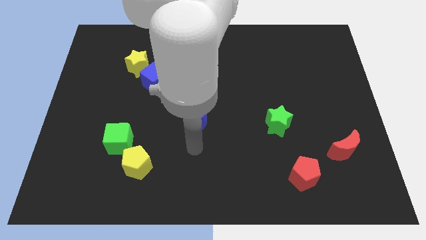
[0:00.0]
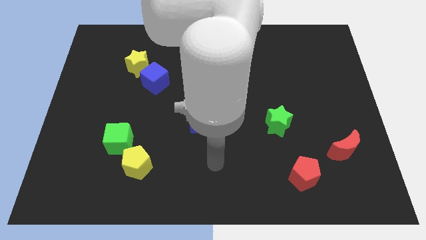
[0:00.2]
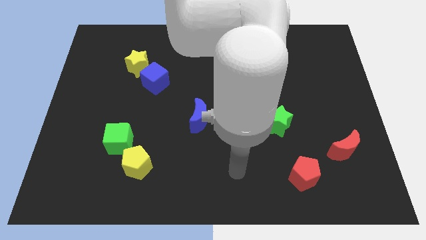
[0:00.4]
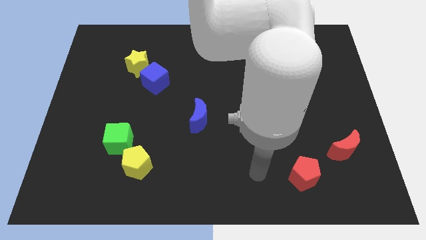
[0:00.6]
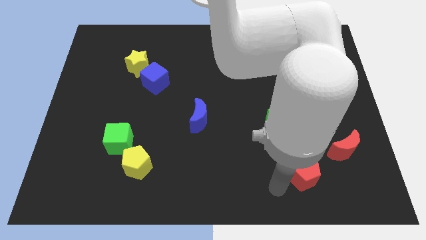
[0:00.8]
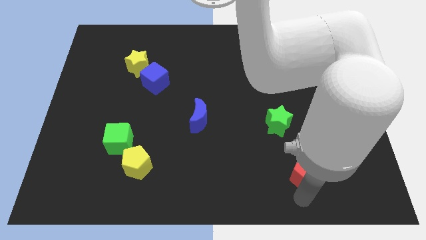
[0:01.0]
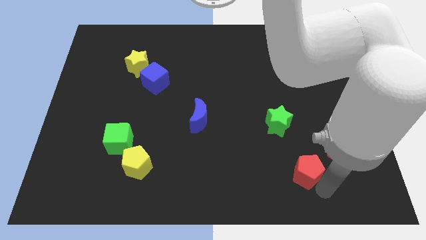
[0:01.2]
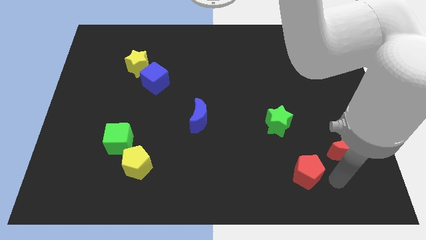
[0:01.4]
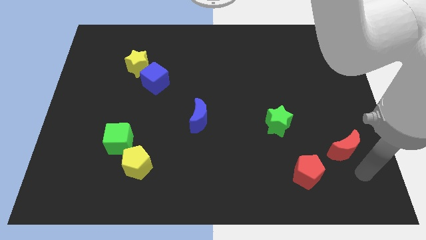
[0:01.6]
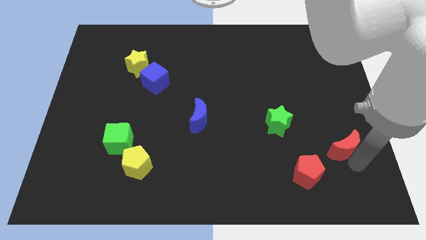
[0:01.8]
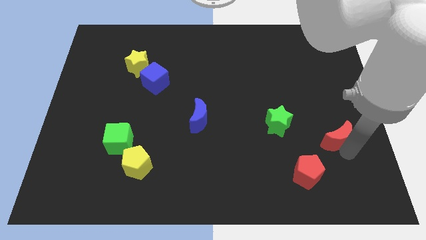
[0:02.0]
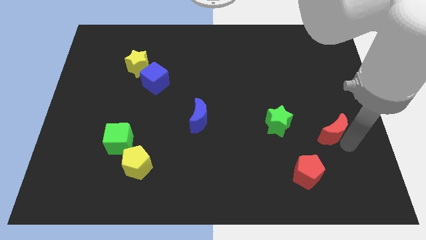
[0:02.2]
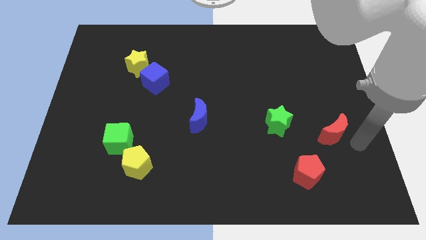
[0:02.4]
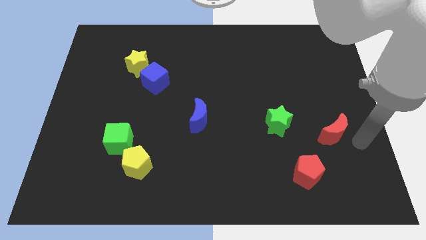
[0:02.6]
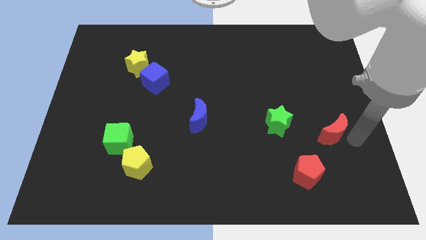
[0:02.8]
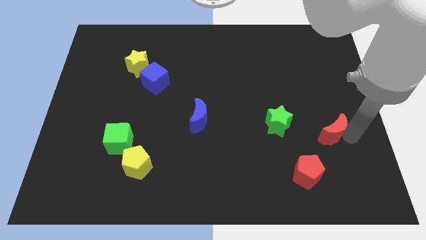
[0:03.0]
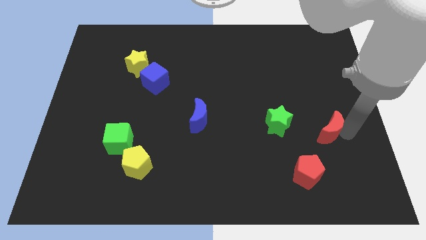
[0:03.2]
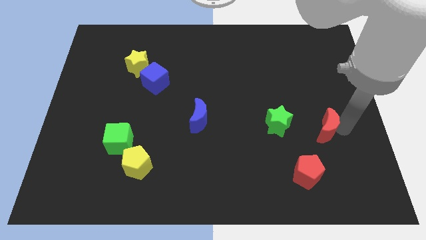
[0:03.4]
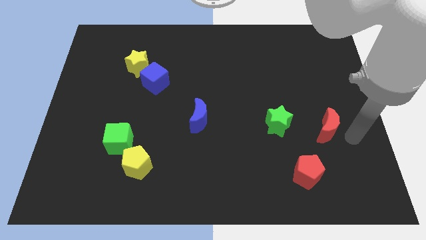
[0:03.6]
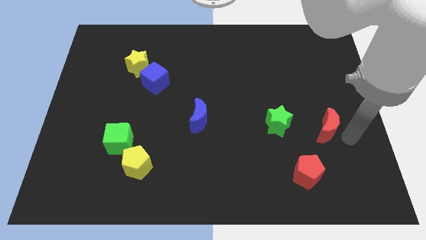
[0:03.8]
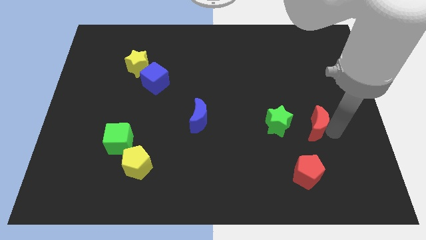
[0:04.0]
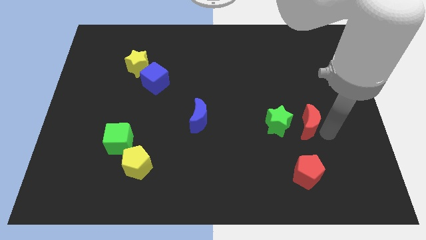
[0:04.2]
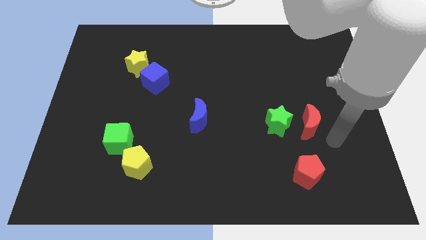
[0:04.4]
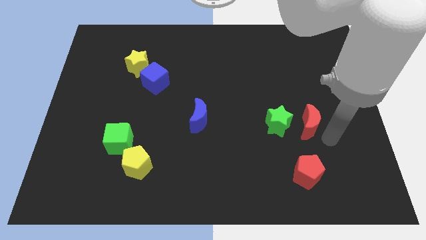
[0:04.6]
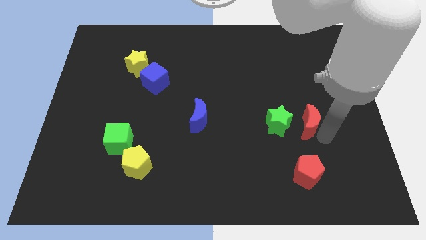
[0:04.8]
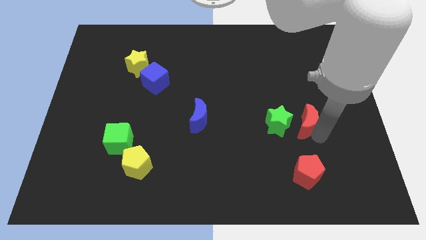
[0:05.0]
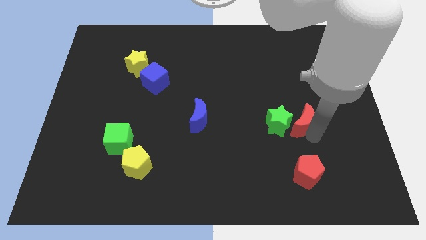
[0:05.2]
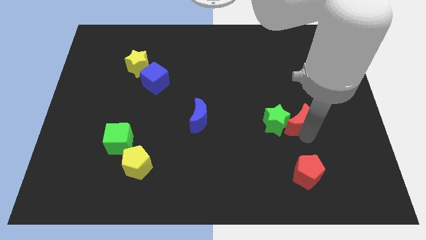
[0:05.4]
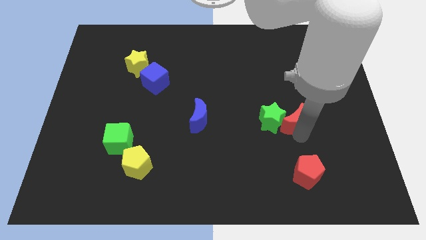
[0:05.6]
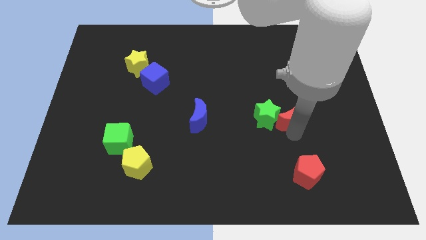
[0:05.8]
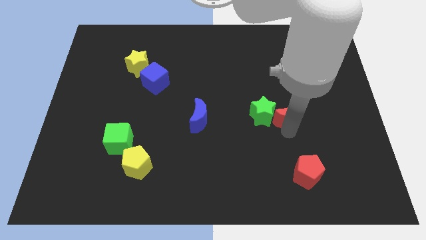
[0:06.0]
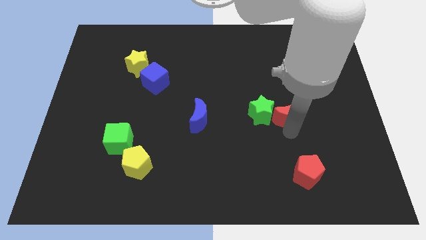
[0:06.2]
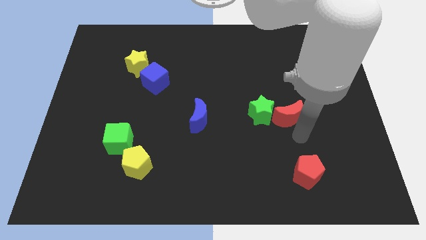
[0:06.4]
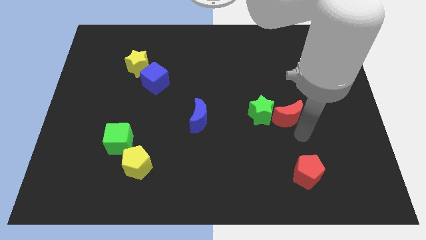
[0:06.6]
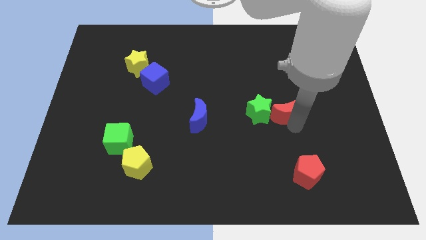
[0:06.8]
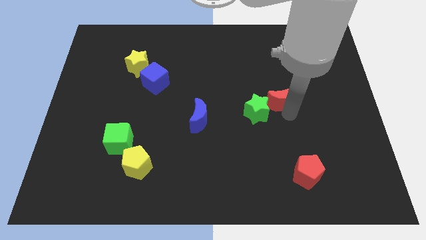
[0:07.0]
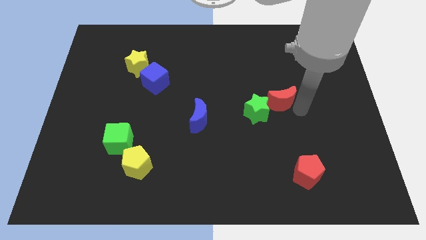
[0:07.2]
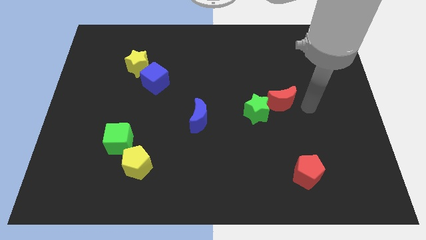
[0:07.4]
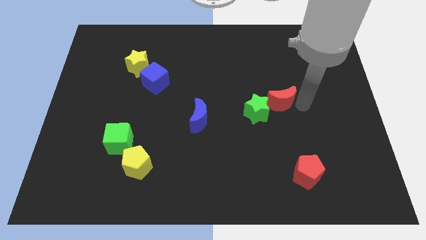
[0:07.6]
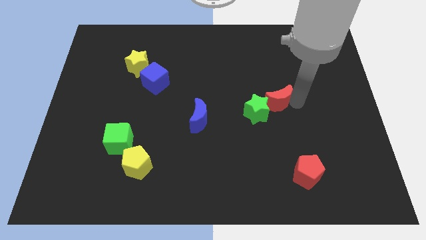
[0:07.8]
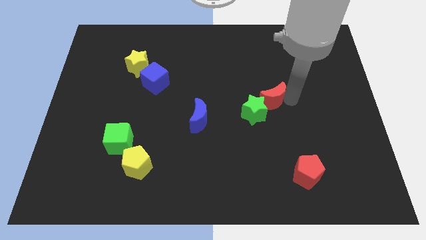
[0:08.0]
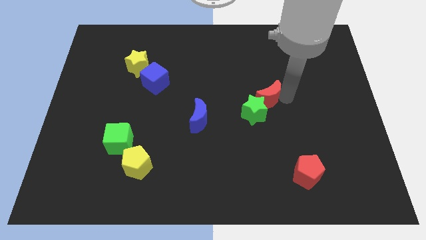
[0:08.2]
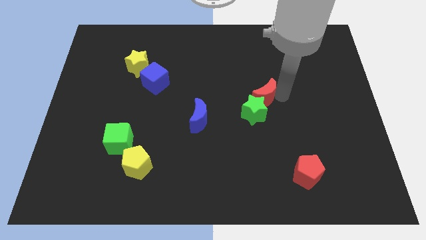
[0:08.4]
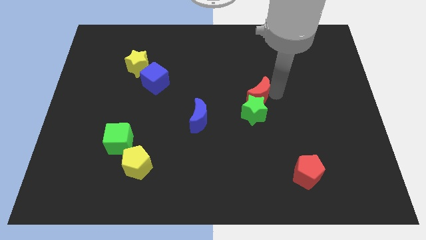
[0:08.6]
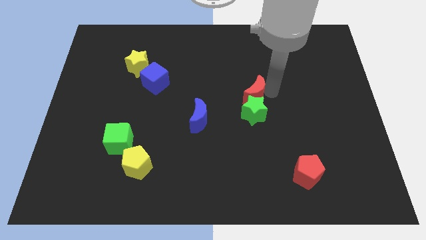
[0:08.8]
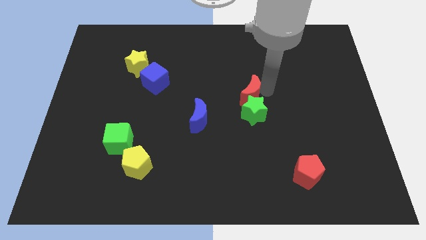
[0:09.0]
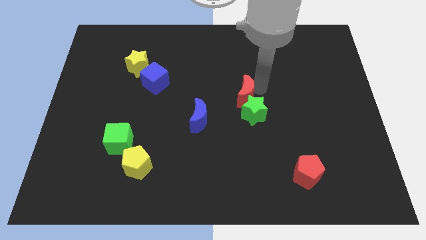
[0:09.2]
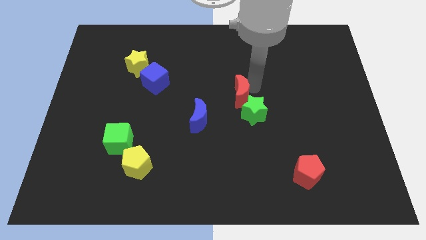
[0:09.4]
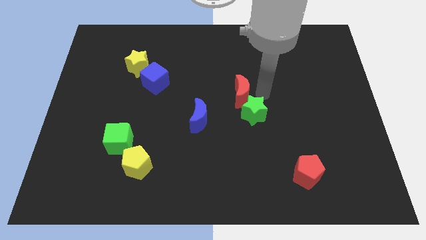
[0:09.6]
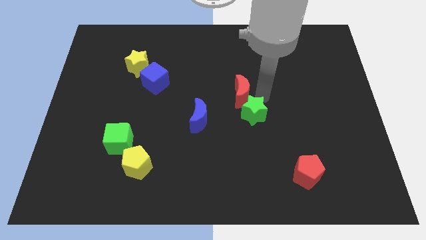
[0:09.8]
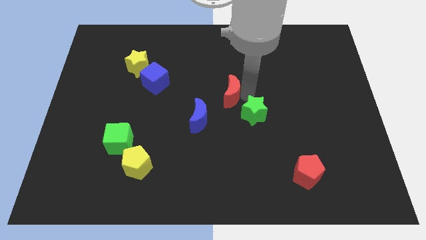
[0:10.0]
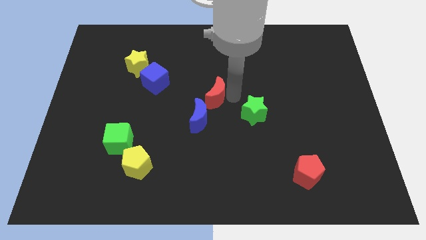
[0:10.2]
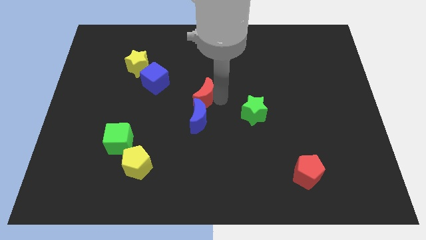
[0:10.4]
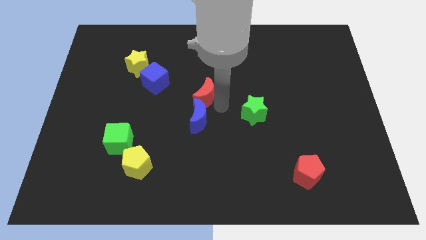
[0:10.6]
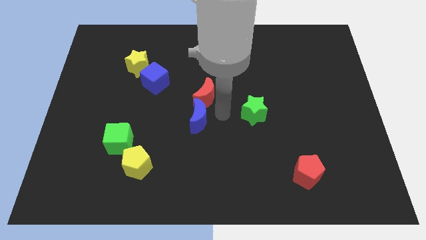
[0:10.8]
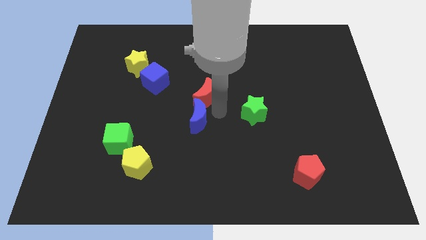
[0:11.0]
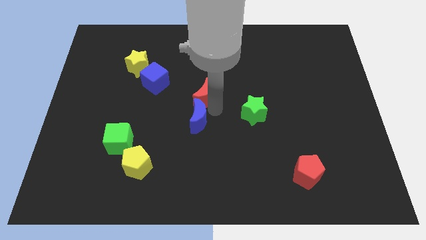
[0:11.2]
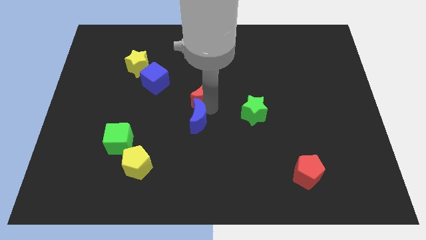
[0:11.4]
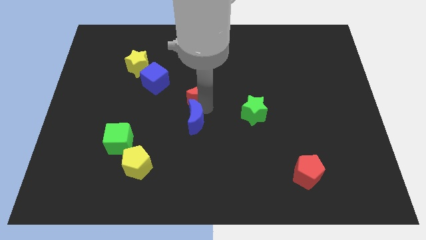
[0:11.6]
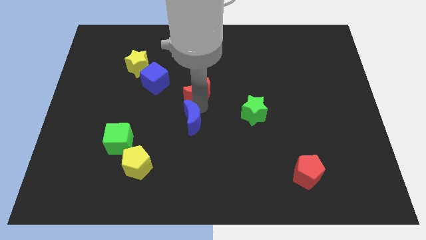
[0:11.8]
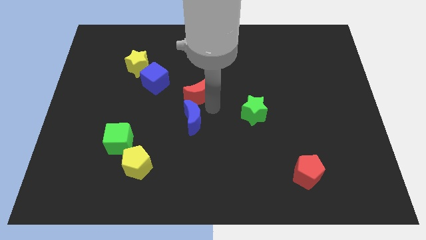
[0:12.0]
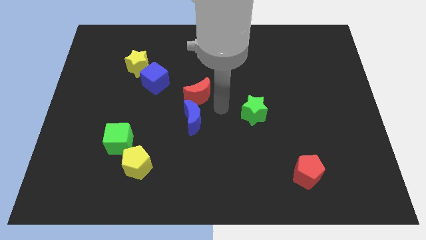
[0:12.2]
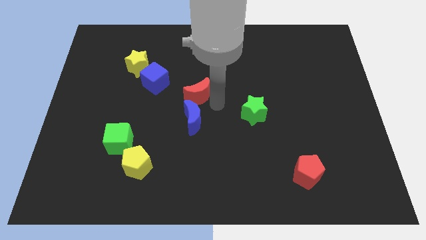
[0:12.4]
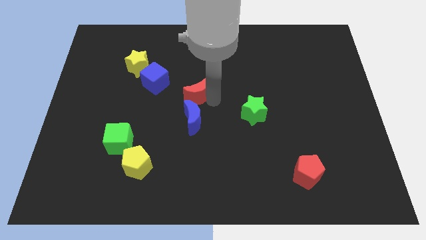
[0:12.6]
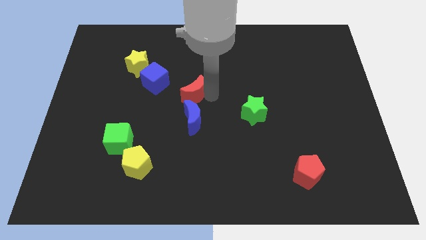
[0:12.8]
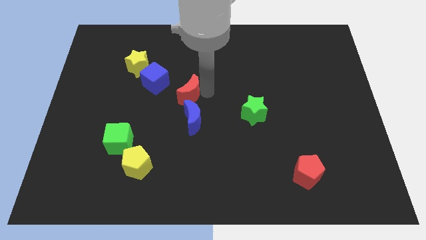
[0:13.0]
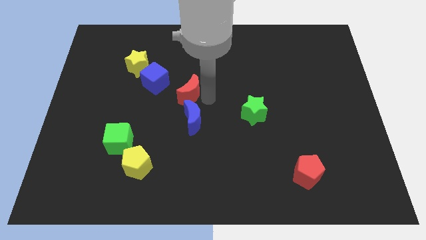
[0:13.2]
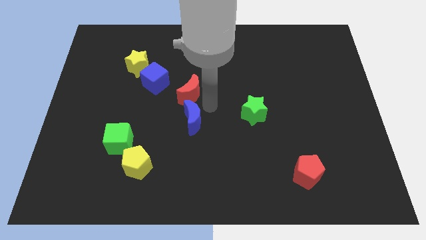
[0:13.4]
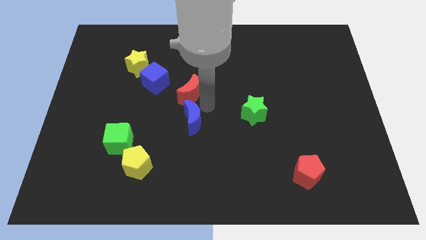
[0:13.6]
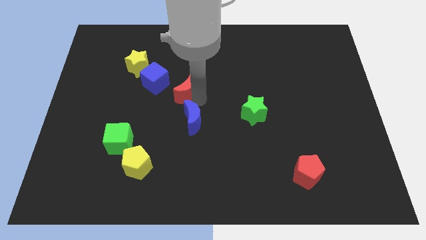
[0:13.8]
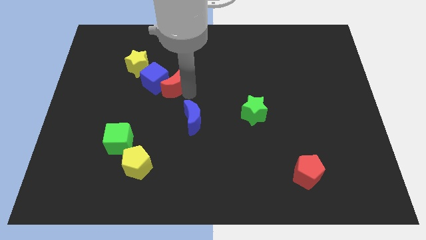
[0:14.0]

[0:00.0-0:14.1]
push the red moon next to the blue cube

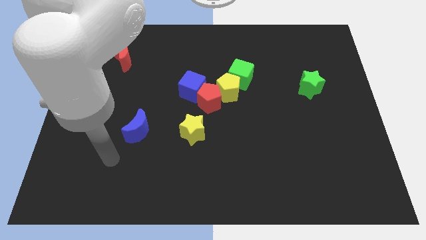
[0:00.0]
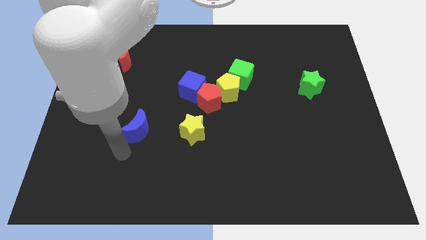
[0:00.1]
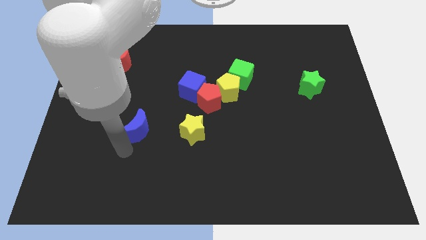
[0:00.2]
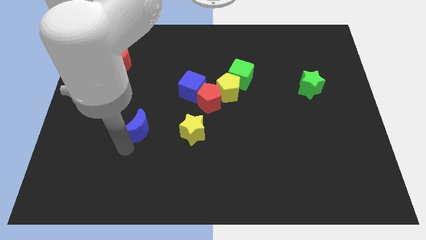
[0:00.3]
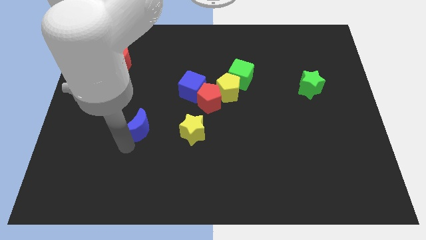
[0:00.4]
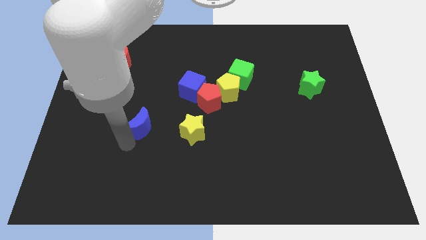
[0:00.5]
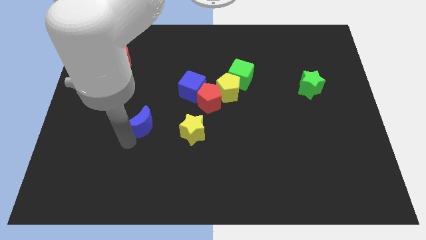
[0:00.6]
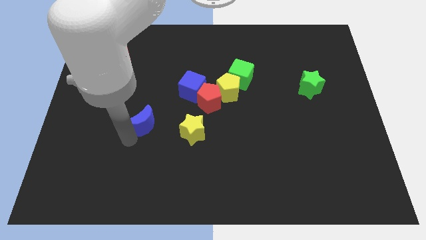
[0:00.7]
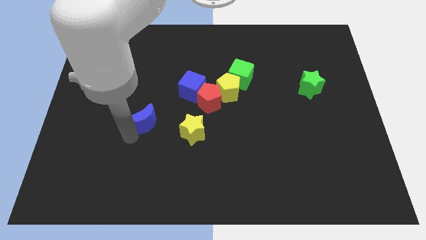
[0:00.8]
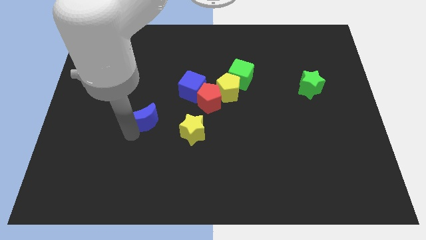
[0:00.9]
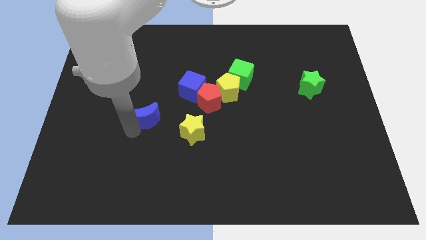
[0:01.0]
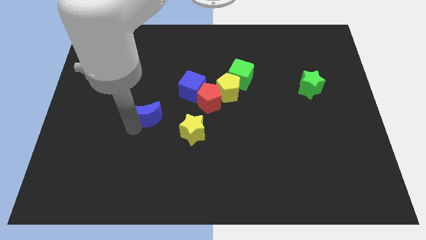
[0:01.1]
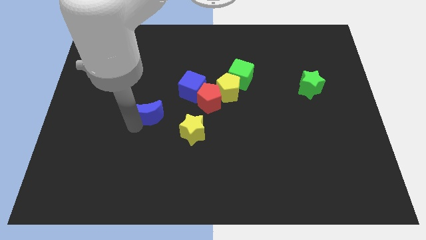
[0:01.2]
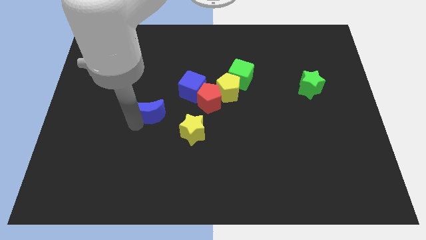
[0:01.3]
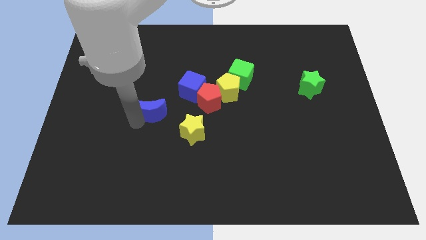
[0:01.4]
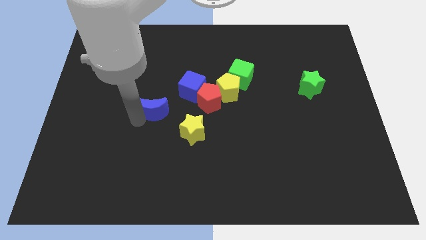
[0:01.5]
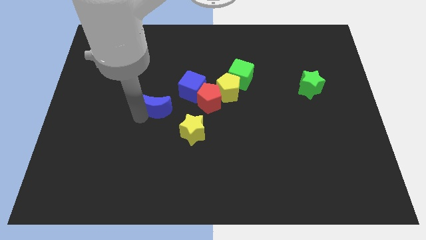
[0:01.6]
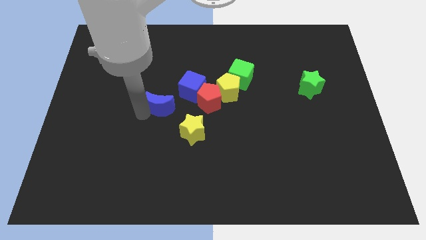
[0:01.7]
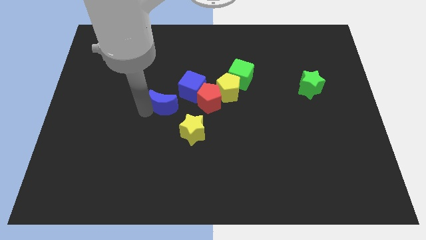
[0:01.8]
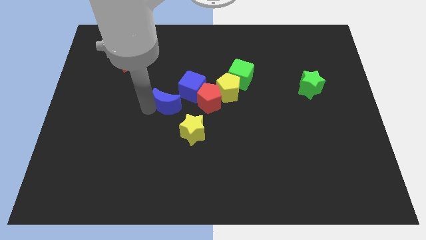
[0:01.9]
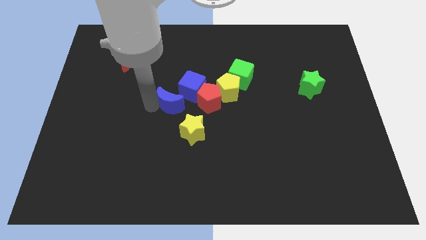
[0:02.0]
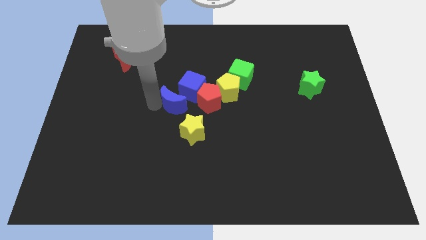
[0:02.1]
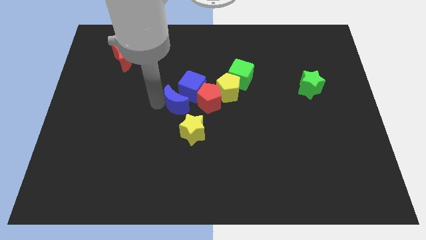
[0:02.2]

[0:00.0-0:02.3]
move the blue moon close to the blue cube
